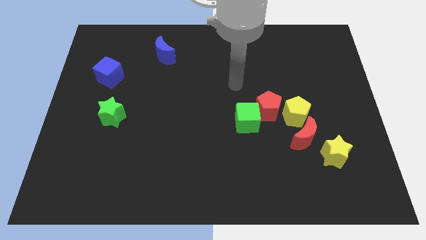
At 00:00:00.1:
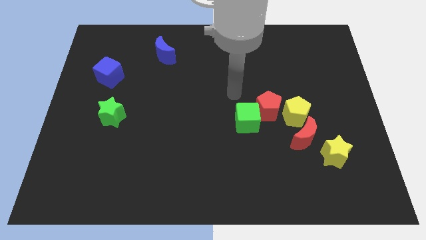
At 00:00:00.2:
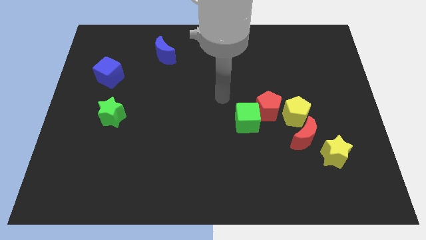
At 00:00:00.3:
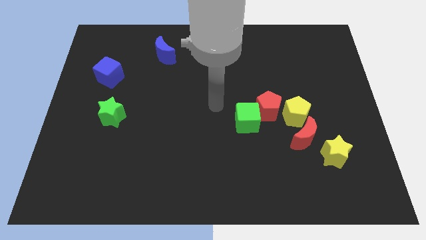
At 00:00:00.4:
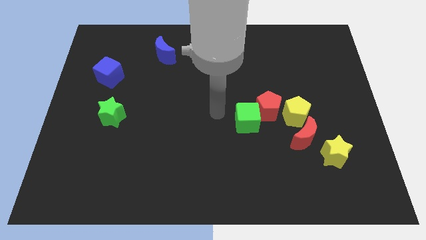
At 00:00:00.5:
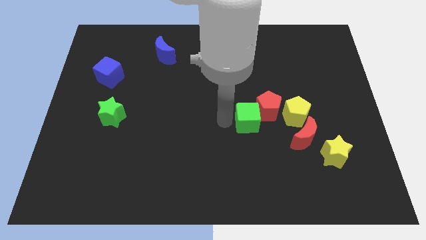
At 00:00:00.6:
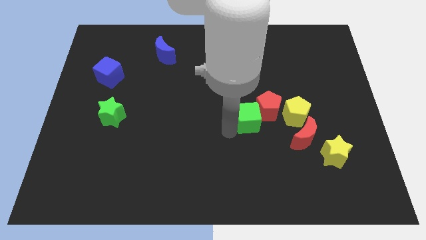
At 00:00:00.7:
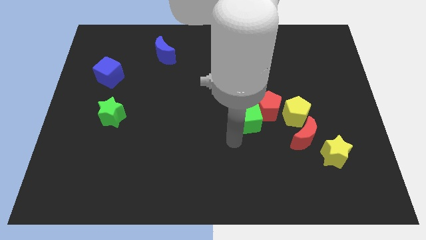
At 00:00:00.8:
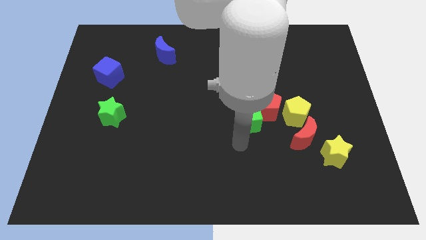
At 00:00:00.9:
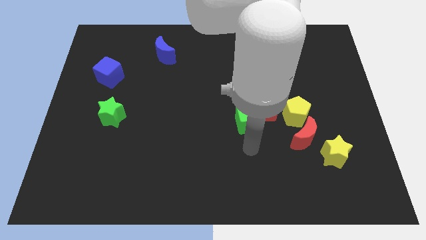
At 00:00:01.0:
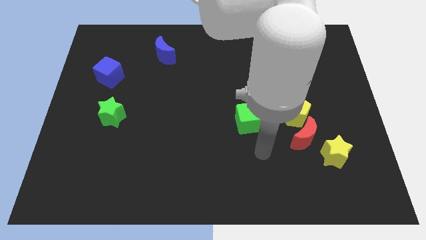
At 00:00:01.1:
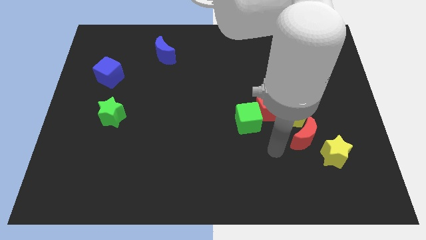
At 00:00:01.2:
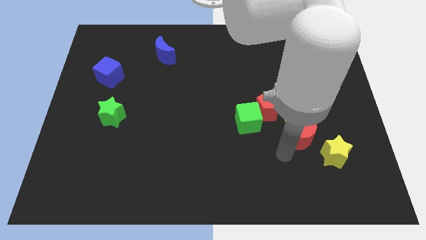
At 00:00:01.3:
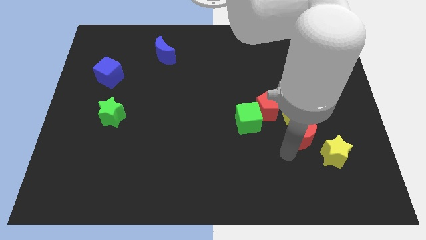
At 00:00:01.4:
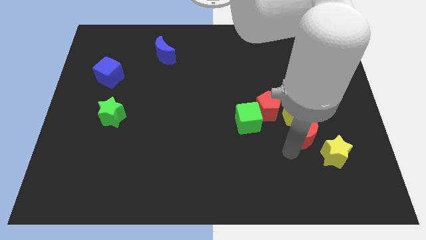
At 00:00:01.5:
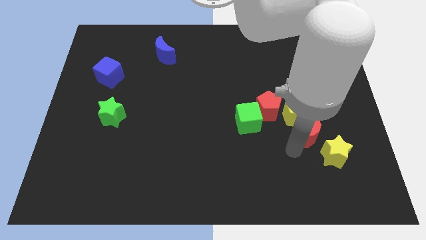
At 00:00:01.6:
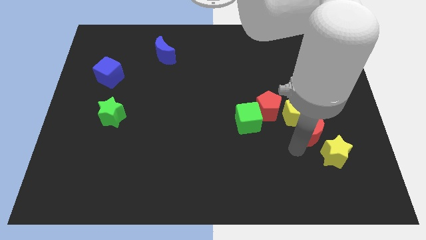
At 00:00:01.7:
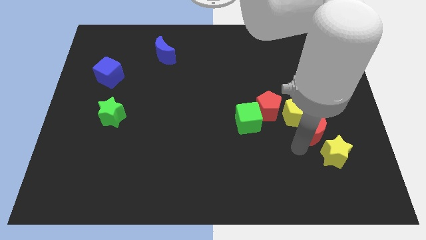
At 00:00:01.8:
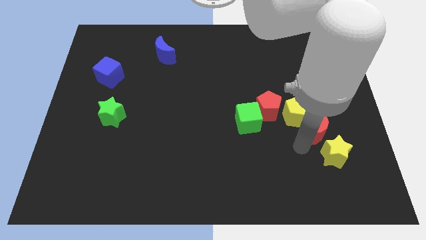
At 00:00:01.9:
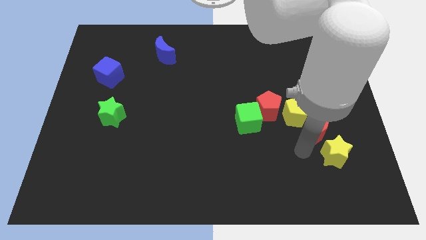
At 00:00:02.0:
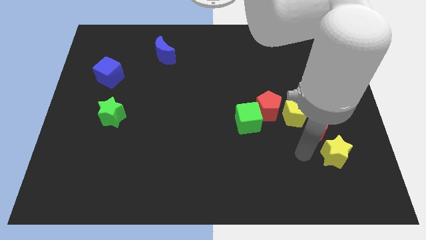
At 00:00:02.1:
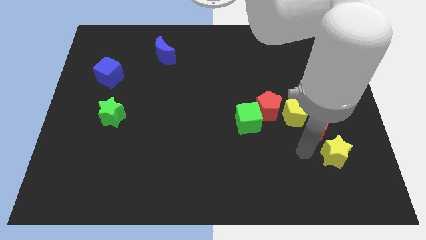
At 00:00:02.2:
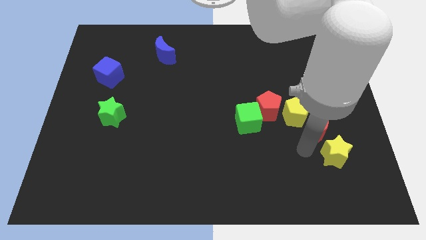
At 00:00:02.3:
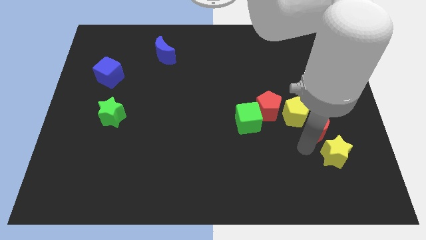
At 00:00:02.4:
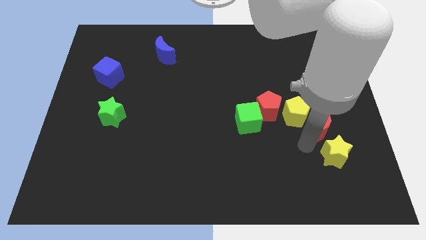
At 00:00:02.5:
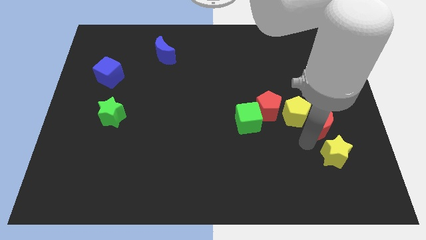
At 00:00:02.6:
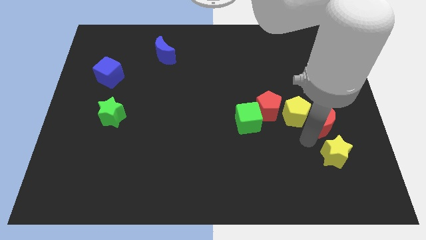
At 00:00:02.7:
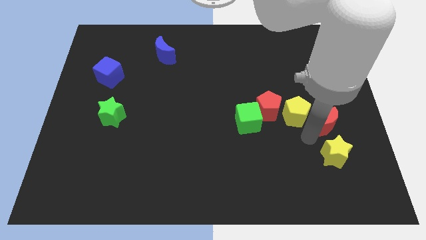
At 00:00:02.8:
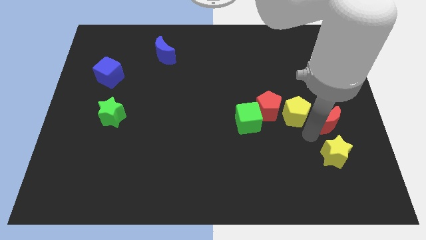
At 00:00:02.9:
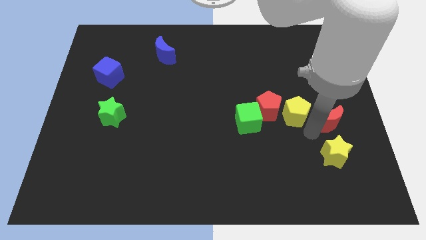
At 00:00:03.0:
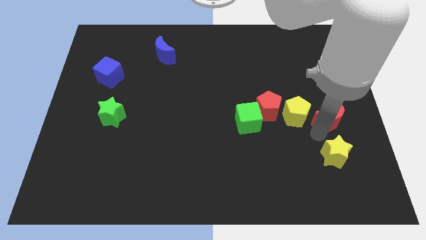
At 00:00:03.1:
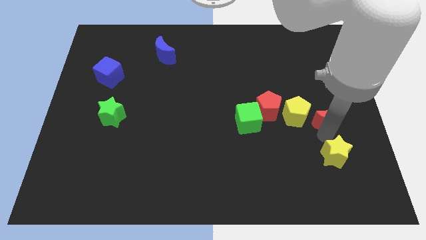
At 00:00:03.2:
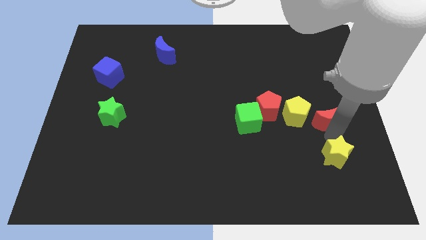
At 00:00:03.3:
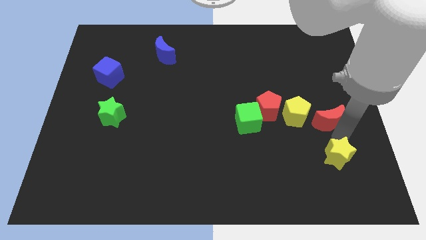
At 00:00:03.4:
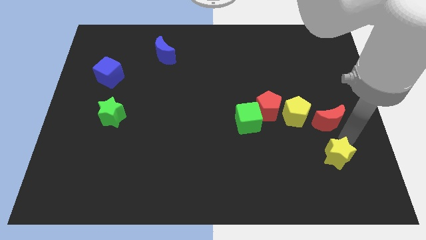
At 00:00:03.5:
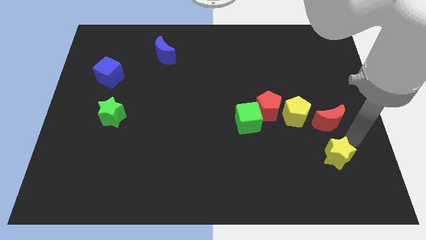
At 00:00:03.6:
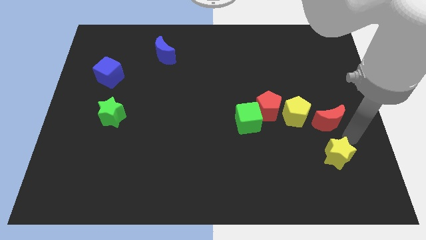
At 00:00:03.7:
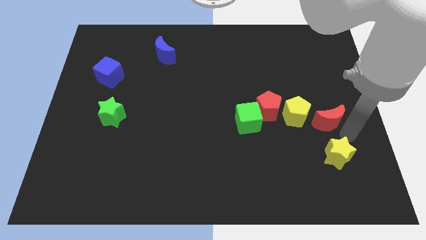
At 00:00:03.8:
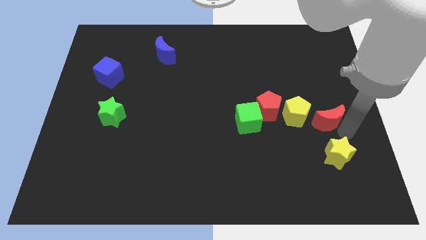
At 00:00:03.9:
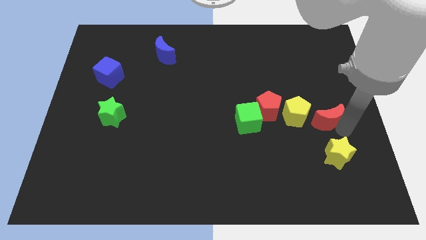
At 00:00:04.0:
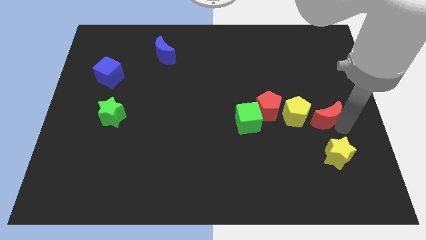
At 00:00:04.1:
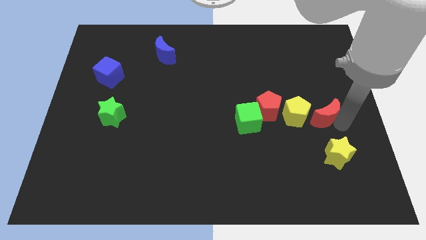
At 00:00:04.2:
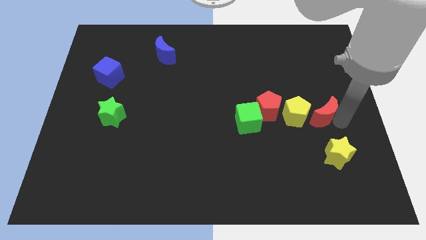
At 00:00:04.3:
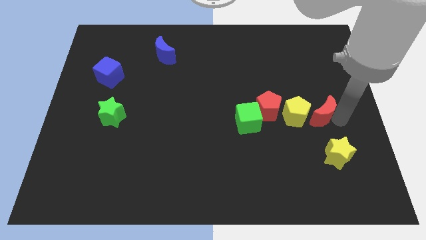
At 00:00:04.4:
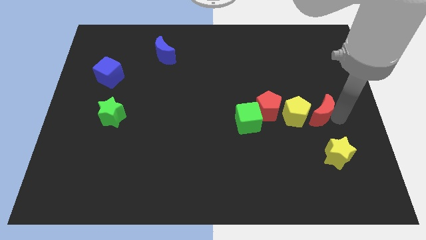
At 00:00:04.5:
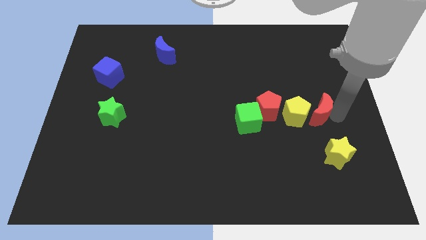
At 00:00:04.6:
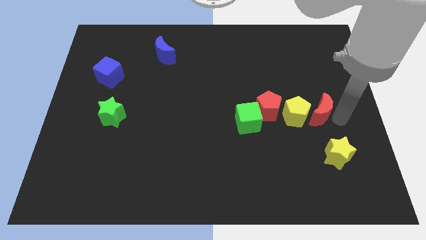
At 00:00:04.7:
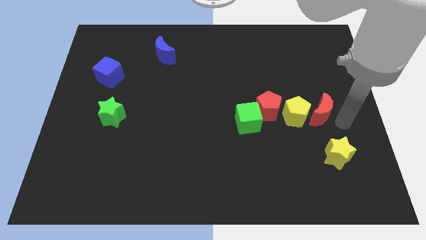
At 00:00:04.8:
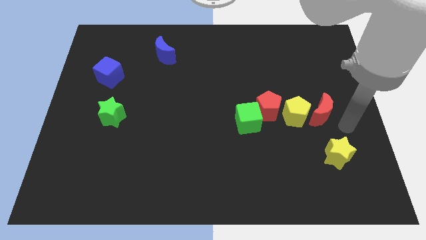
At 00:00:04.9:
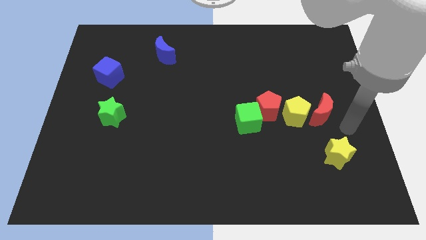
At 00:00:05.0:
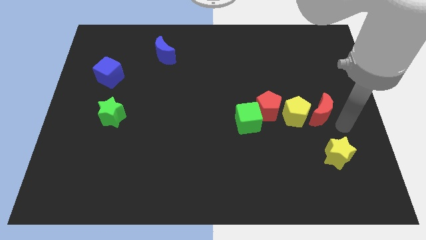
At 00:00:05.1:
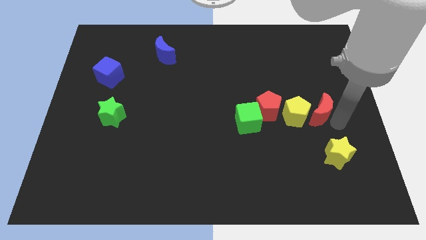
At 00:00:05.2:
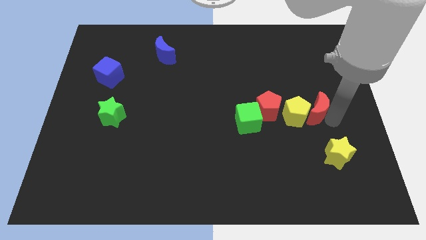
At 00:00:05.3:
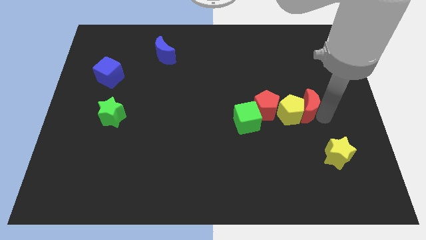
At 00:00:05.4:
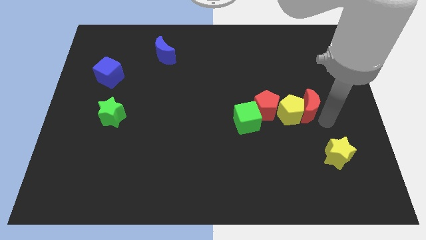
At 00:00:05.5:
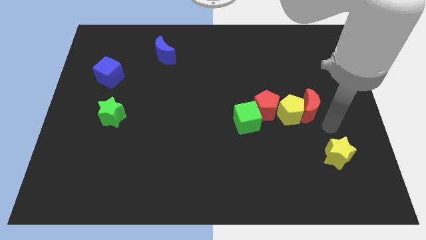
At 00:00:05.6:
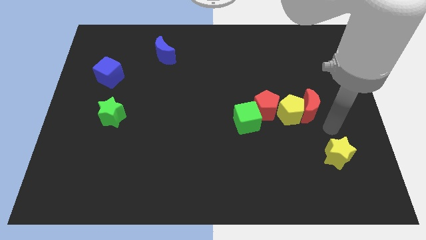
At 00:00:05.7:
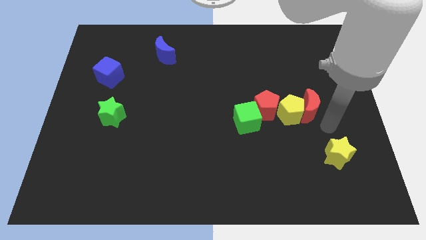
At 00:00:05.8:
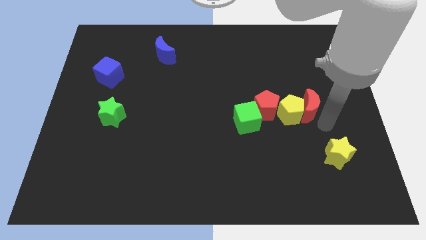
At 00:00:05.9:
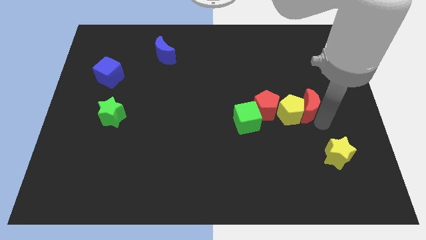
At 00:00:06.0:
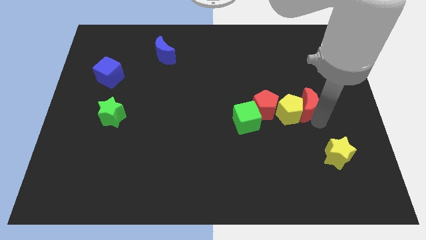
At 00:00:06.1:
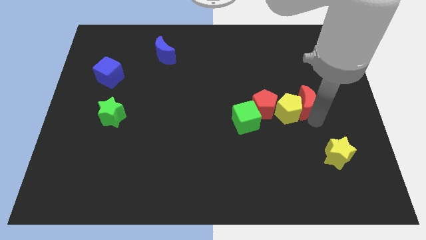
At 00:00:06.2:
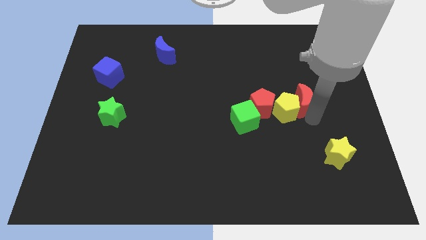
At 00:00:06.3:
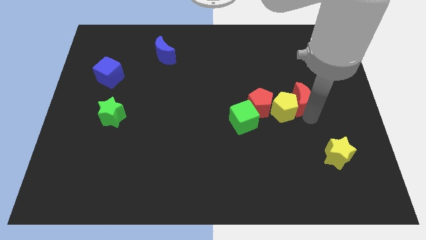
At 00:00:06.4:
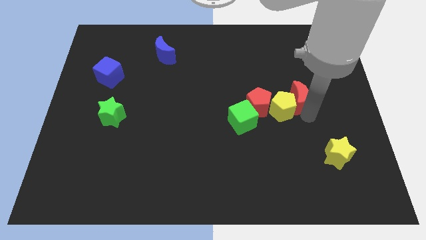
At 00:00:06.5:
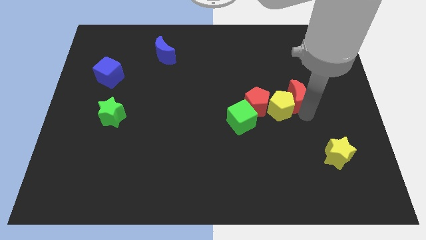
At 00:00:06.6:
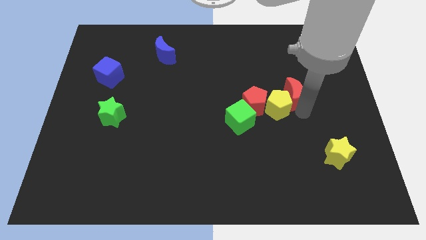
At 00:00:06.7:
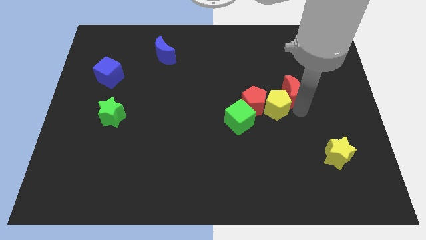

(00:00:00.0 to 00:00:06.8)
slide the red moon diagonally upwards and to the left a little

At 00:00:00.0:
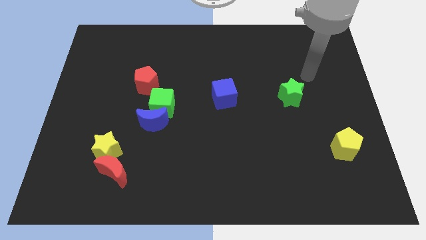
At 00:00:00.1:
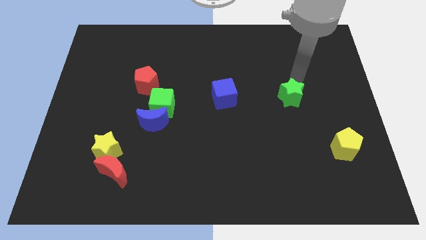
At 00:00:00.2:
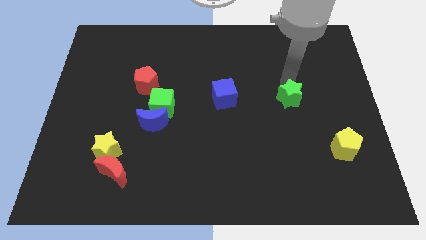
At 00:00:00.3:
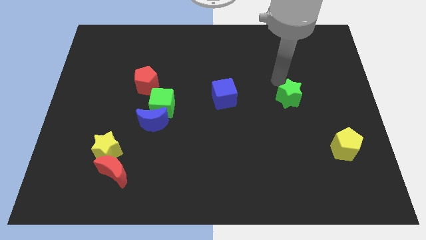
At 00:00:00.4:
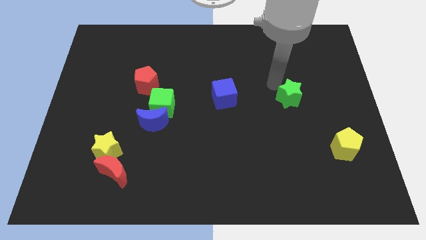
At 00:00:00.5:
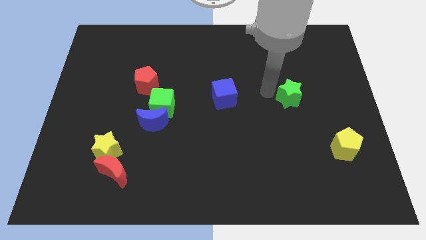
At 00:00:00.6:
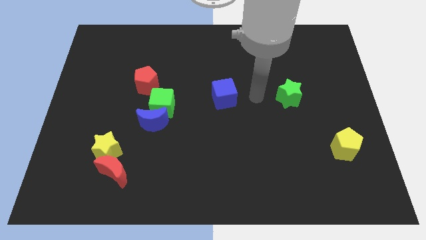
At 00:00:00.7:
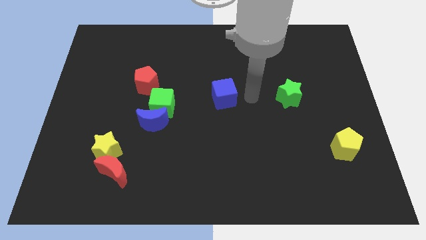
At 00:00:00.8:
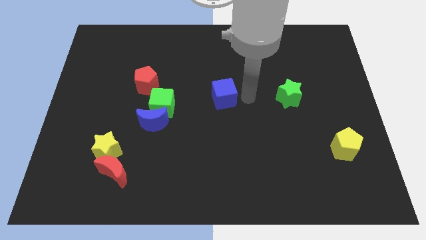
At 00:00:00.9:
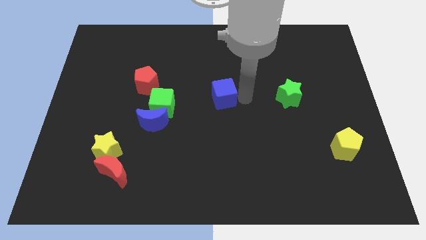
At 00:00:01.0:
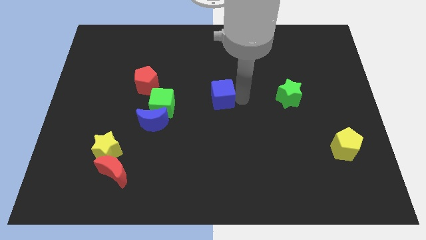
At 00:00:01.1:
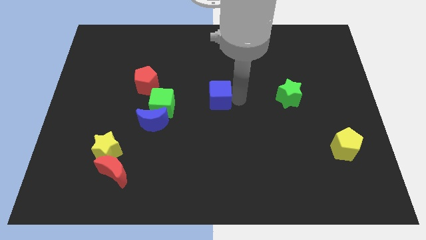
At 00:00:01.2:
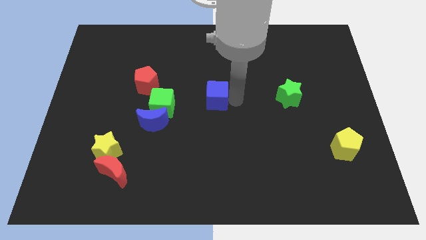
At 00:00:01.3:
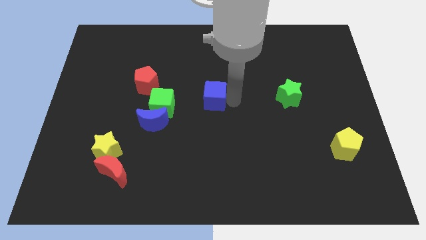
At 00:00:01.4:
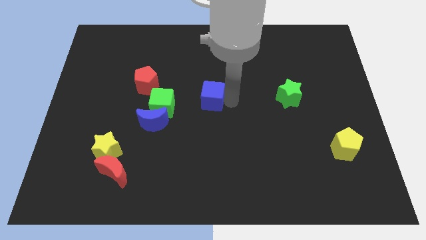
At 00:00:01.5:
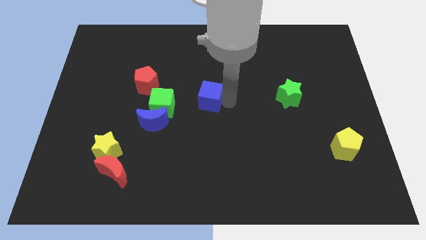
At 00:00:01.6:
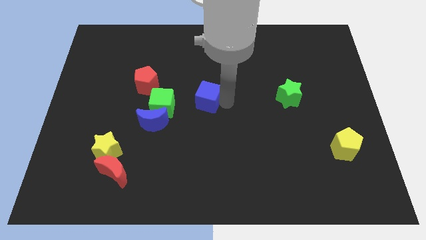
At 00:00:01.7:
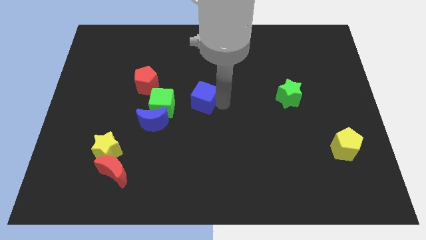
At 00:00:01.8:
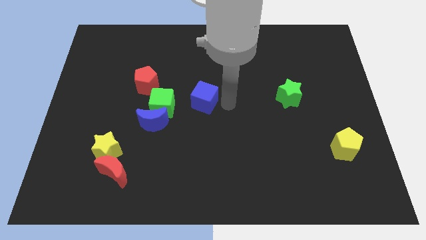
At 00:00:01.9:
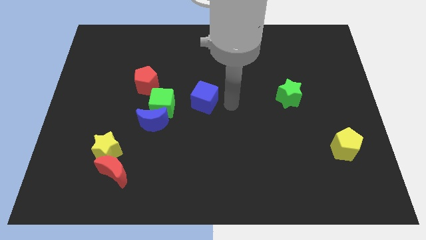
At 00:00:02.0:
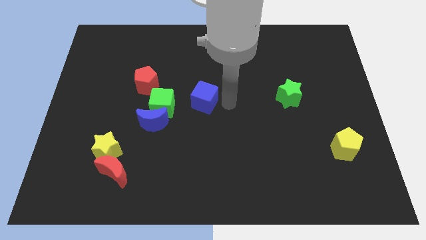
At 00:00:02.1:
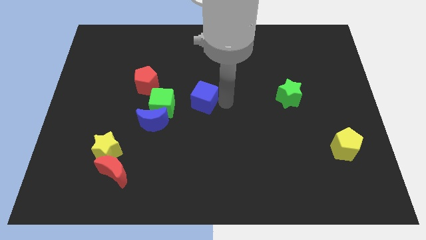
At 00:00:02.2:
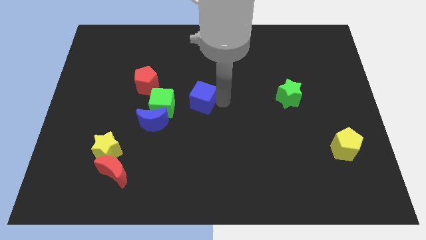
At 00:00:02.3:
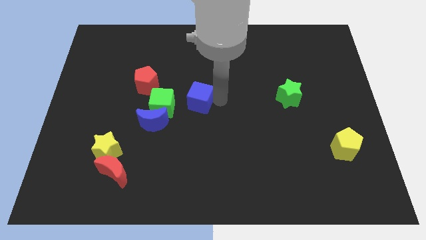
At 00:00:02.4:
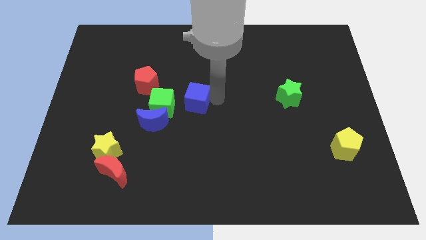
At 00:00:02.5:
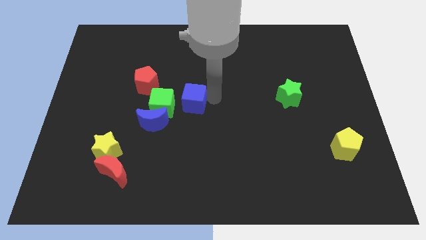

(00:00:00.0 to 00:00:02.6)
slightly push the blue cube left
